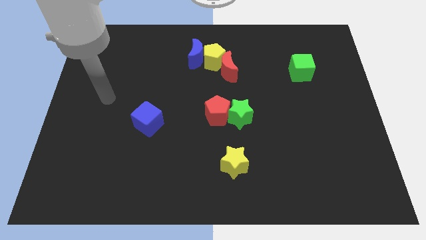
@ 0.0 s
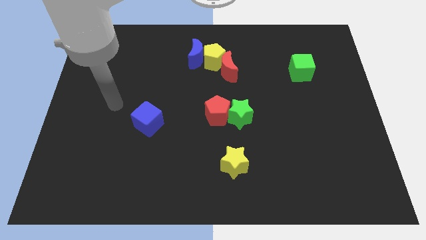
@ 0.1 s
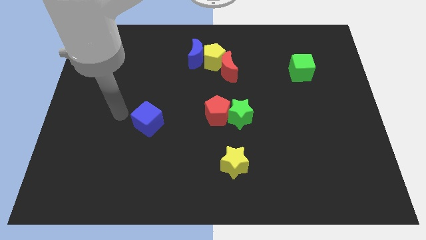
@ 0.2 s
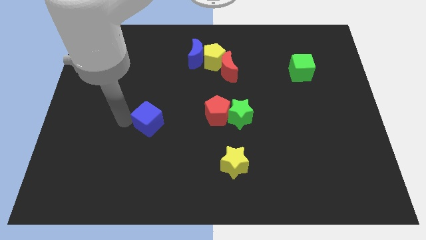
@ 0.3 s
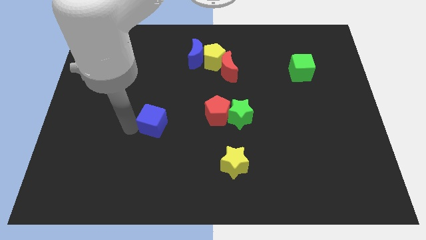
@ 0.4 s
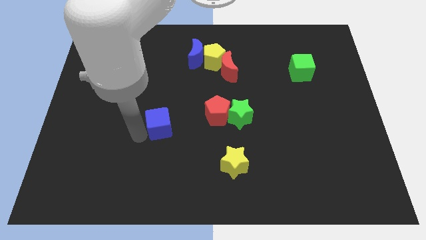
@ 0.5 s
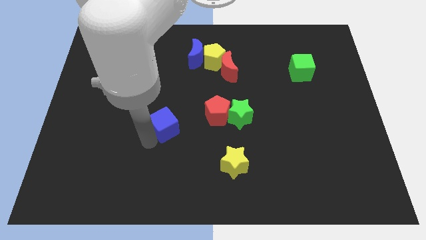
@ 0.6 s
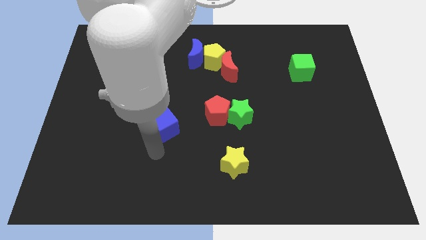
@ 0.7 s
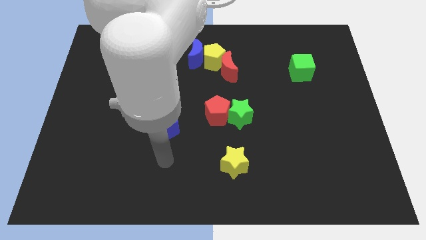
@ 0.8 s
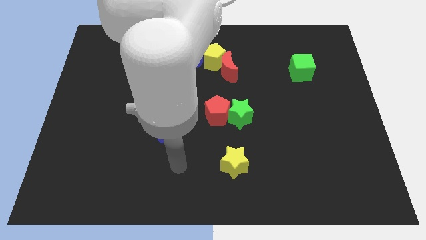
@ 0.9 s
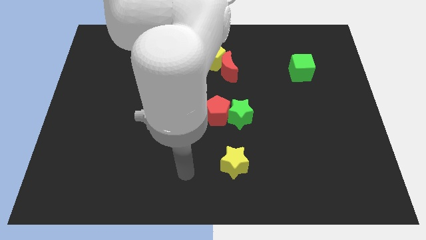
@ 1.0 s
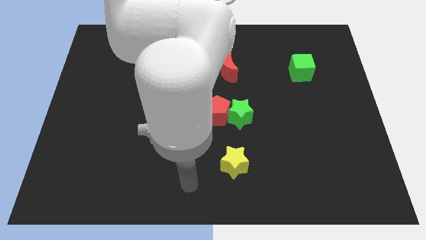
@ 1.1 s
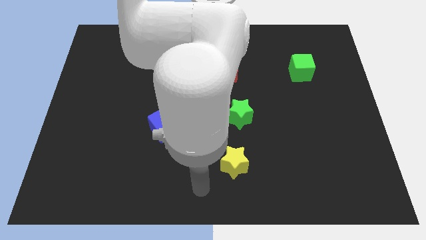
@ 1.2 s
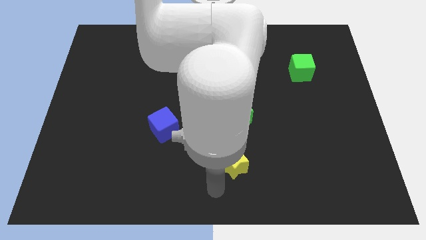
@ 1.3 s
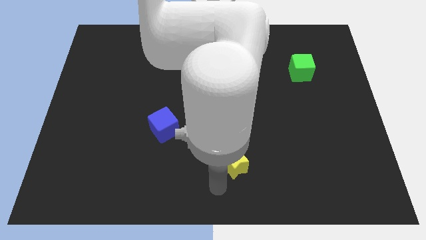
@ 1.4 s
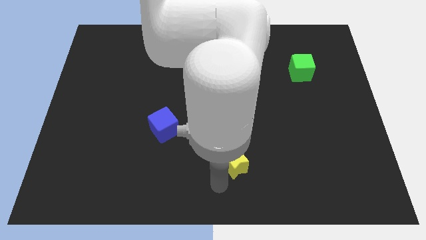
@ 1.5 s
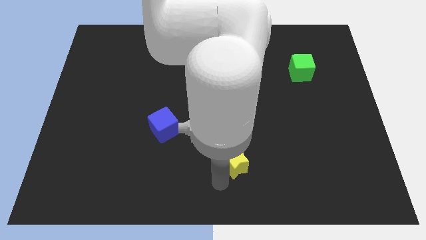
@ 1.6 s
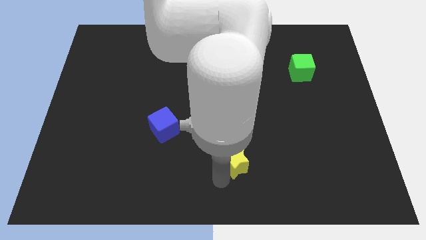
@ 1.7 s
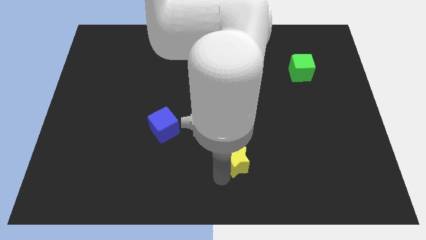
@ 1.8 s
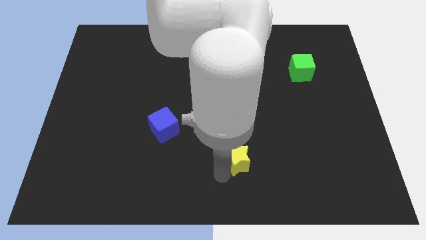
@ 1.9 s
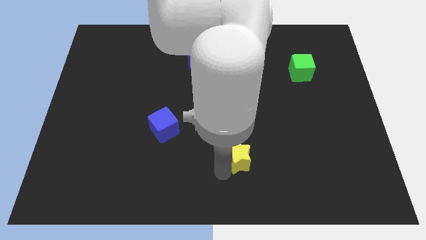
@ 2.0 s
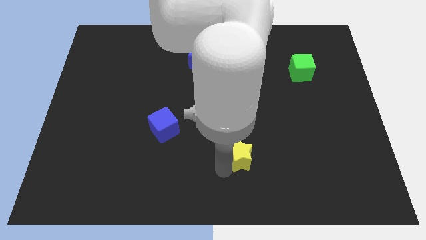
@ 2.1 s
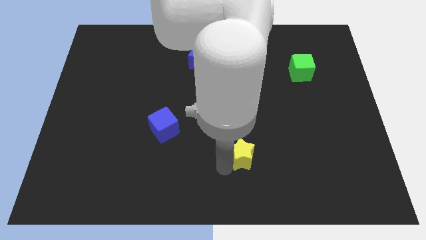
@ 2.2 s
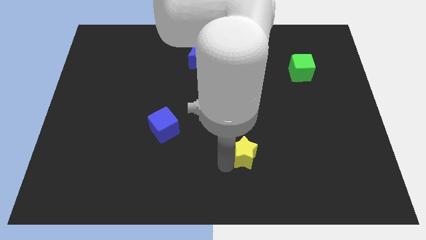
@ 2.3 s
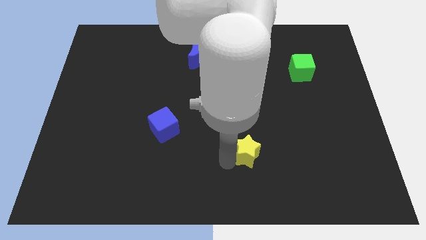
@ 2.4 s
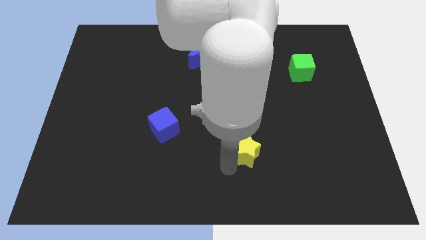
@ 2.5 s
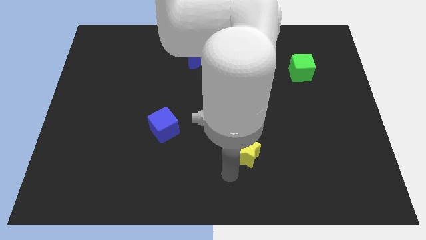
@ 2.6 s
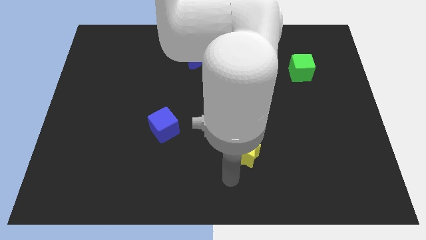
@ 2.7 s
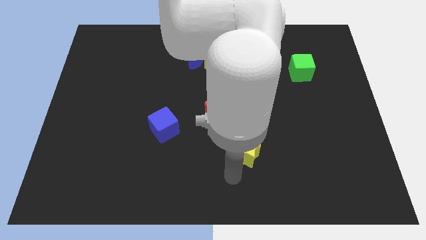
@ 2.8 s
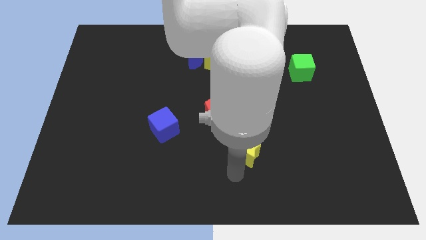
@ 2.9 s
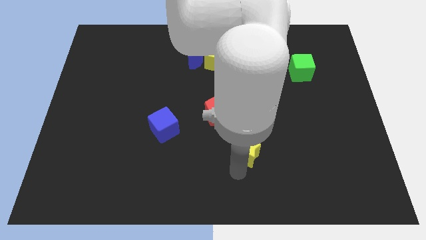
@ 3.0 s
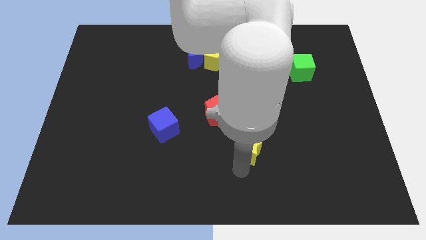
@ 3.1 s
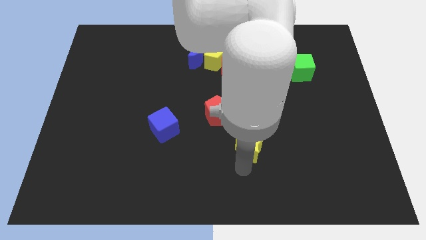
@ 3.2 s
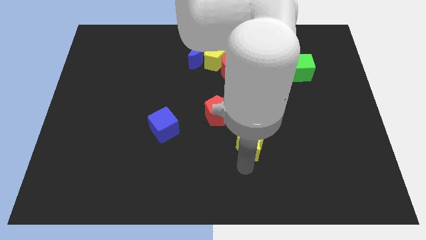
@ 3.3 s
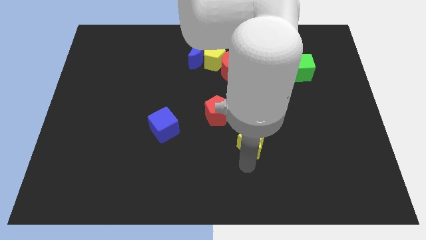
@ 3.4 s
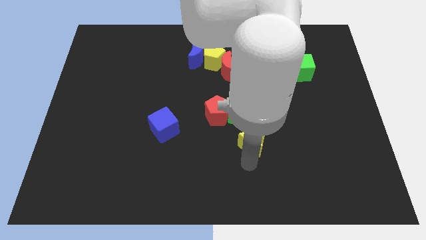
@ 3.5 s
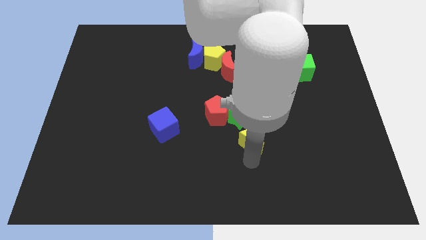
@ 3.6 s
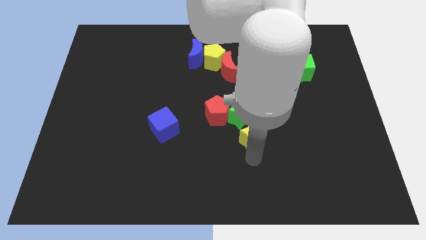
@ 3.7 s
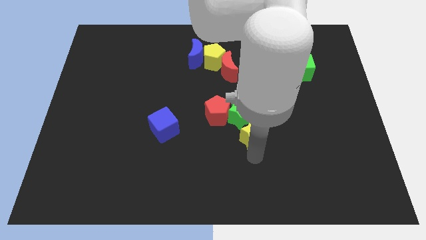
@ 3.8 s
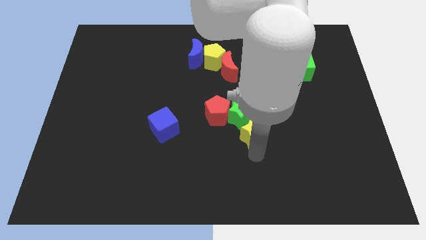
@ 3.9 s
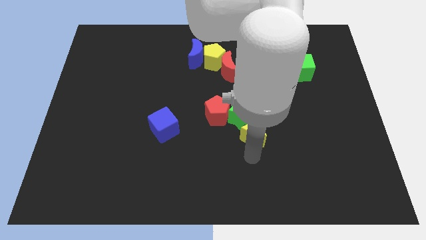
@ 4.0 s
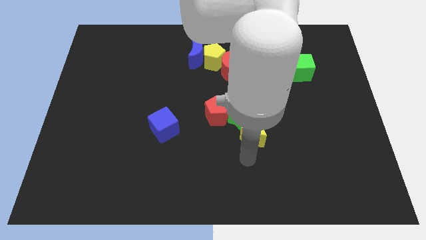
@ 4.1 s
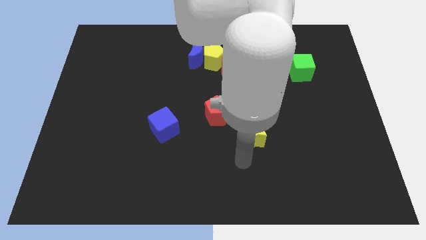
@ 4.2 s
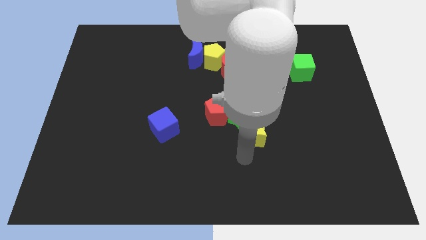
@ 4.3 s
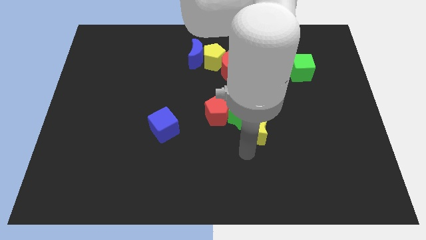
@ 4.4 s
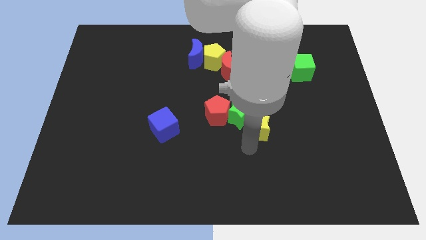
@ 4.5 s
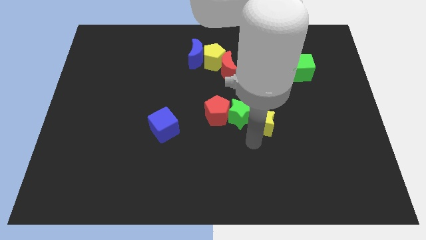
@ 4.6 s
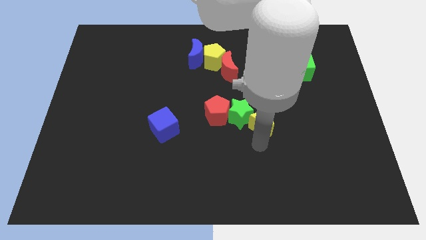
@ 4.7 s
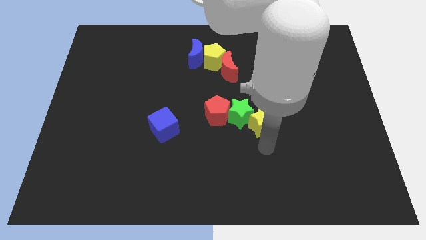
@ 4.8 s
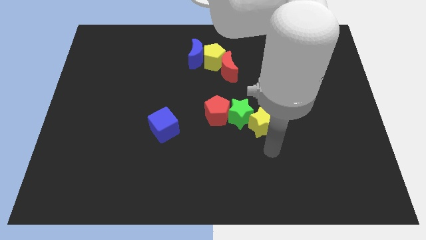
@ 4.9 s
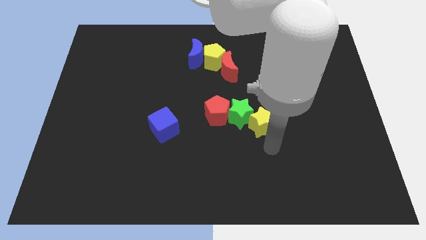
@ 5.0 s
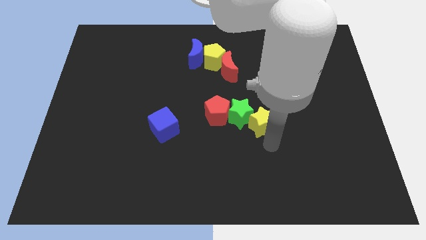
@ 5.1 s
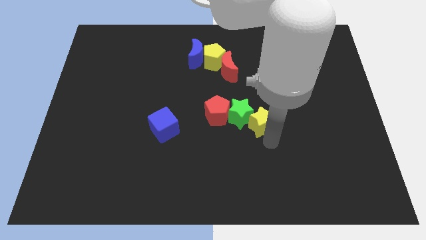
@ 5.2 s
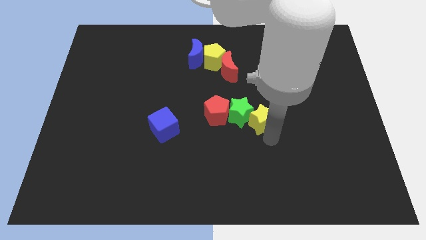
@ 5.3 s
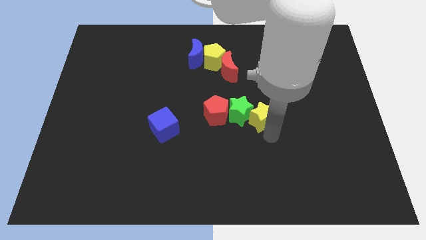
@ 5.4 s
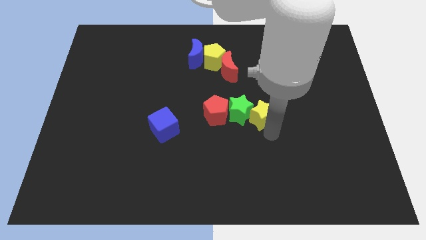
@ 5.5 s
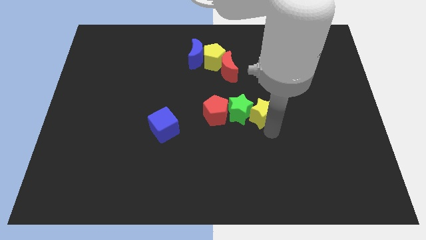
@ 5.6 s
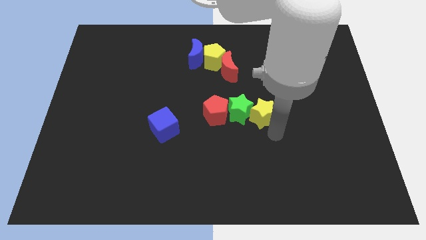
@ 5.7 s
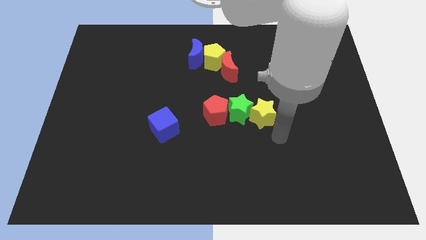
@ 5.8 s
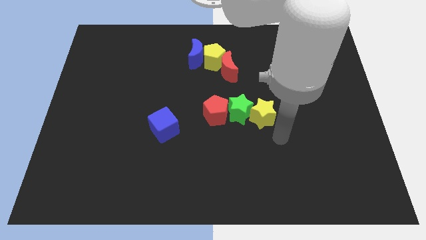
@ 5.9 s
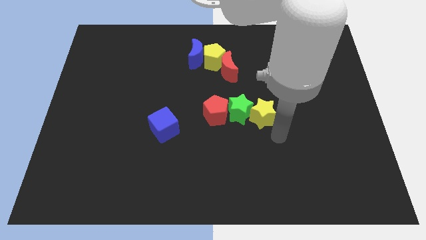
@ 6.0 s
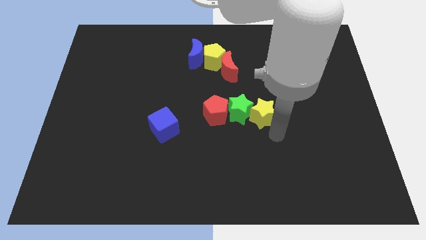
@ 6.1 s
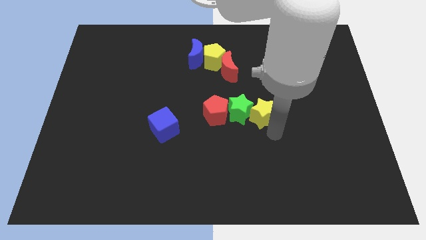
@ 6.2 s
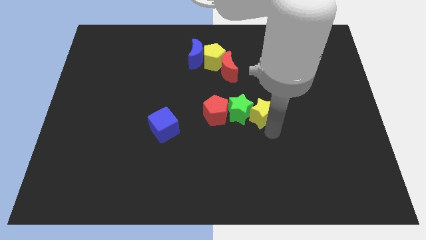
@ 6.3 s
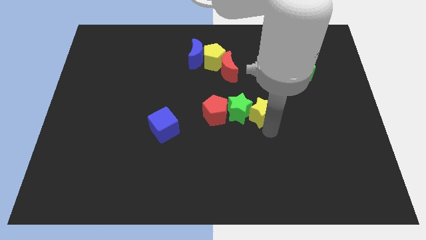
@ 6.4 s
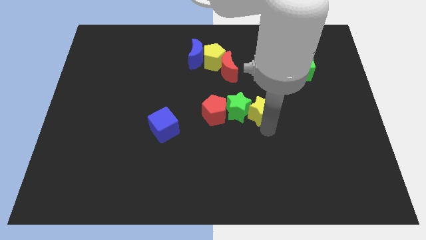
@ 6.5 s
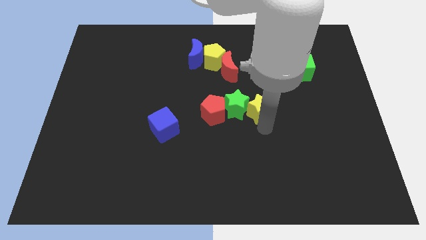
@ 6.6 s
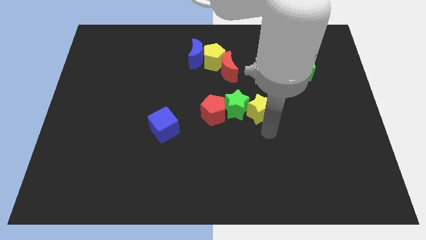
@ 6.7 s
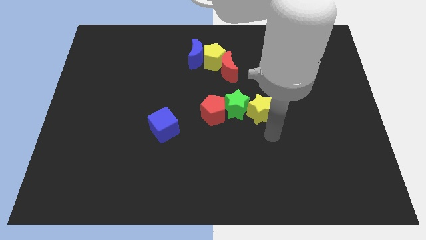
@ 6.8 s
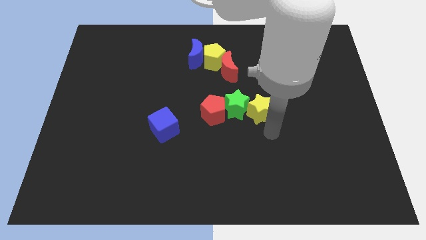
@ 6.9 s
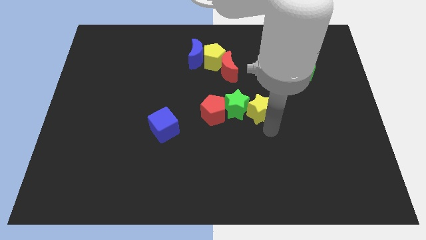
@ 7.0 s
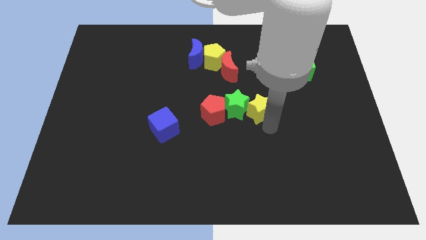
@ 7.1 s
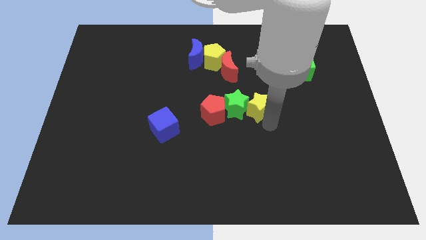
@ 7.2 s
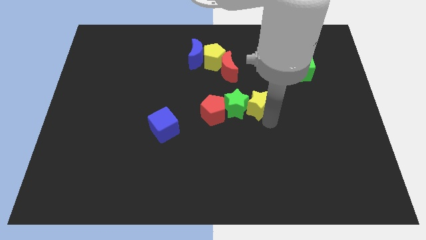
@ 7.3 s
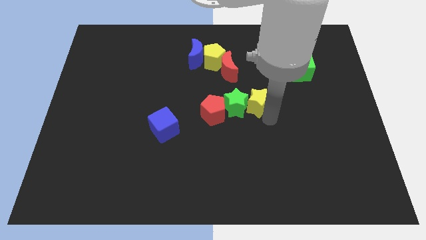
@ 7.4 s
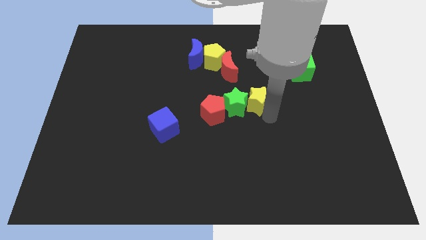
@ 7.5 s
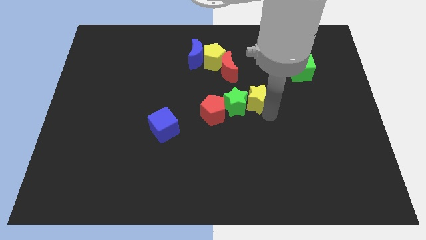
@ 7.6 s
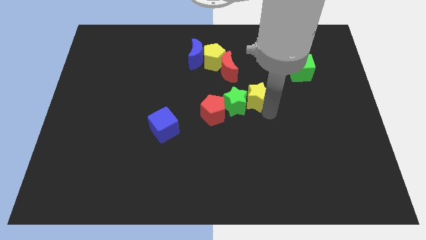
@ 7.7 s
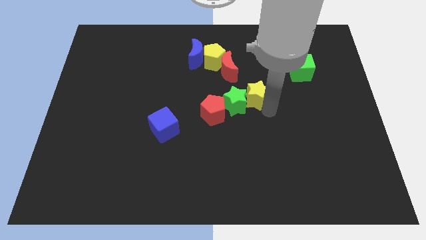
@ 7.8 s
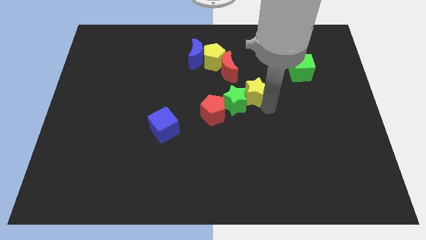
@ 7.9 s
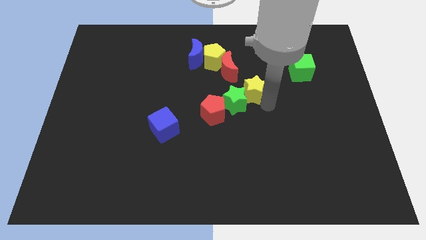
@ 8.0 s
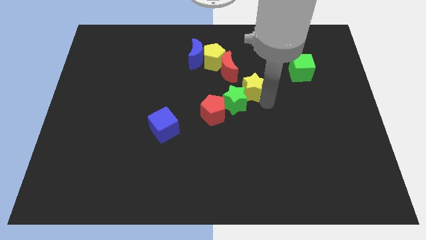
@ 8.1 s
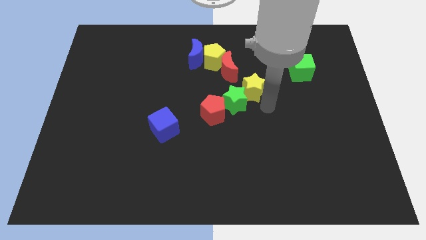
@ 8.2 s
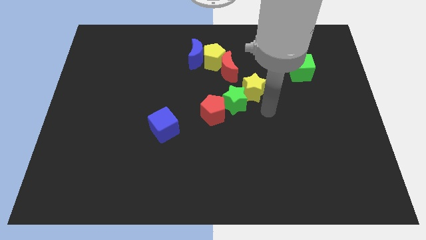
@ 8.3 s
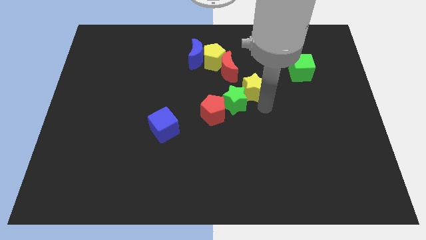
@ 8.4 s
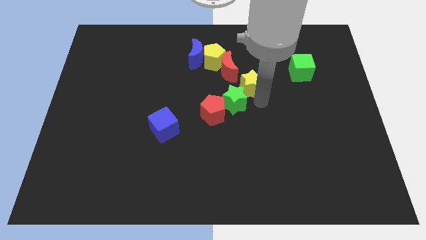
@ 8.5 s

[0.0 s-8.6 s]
move the yellow star up
